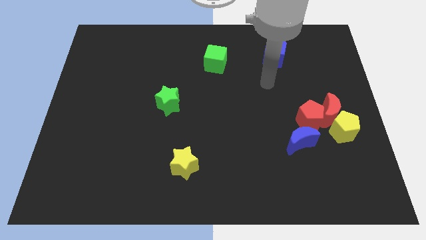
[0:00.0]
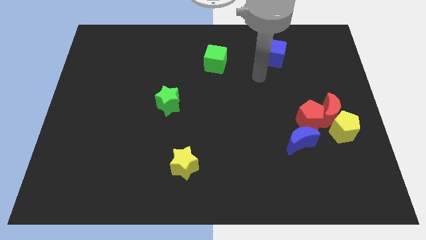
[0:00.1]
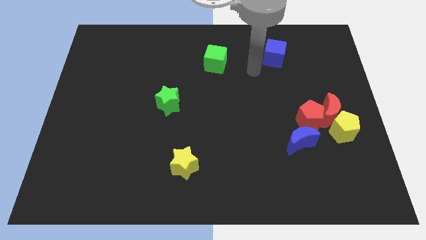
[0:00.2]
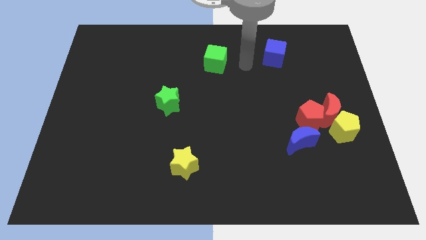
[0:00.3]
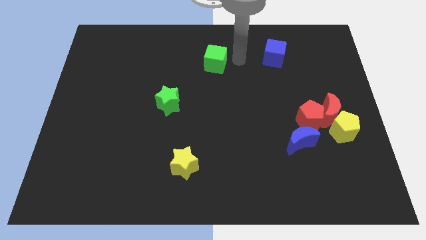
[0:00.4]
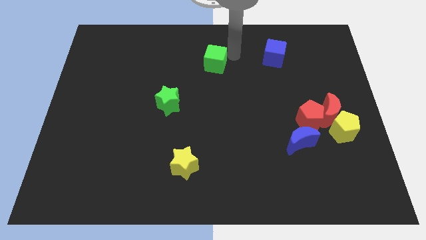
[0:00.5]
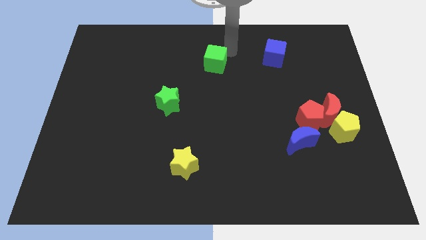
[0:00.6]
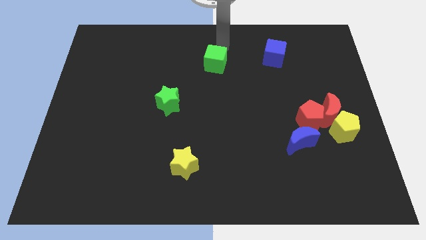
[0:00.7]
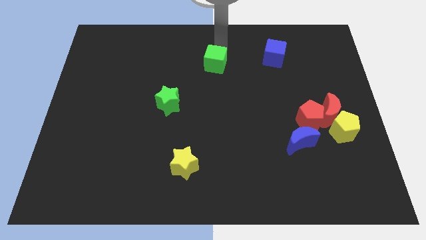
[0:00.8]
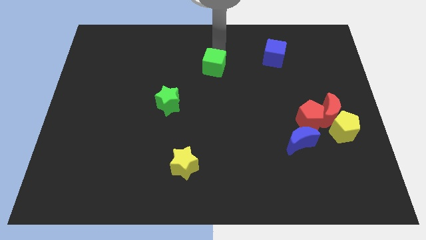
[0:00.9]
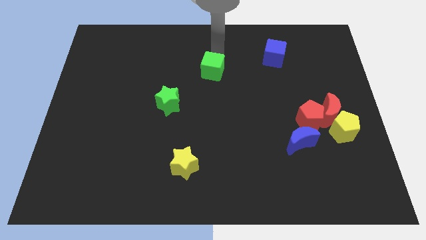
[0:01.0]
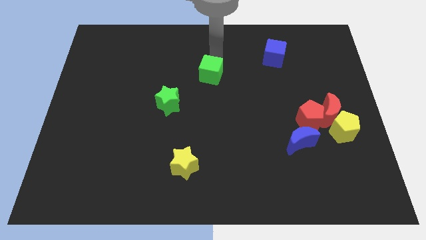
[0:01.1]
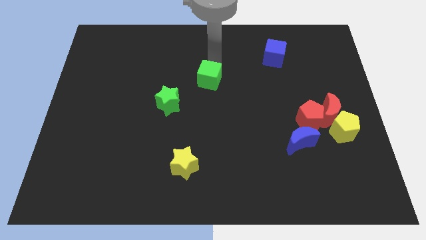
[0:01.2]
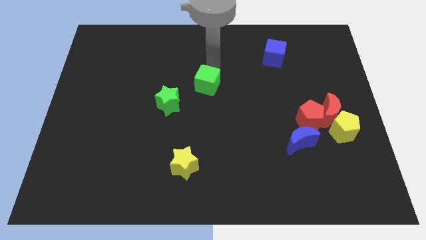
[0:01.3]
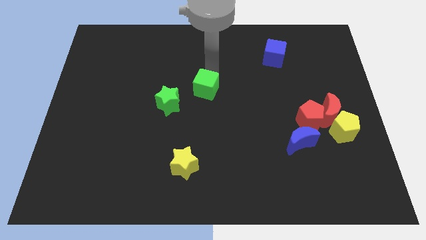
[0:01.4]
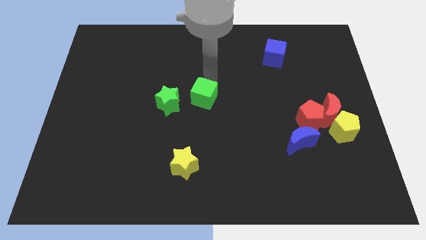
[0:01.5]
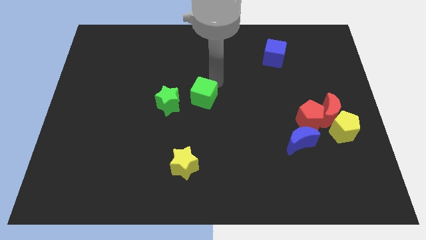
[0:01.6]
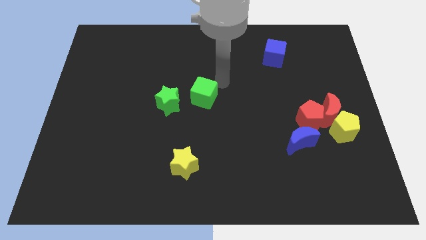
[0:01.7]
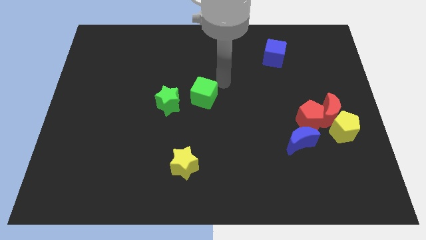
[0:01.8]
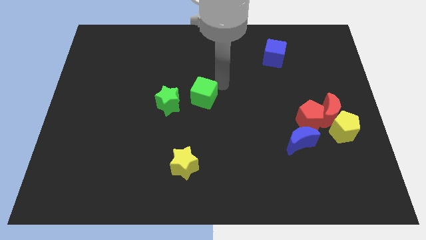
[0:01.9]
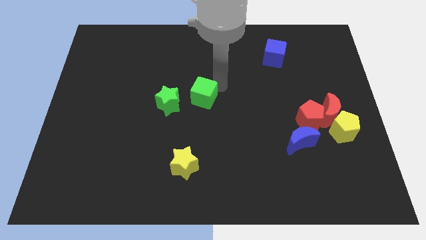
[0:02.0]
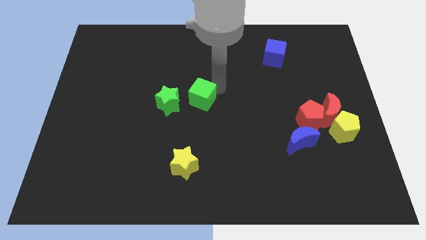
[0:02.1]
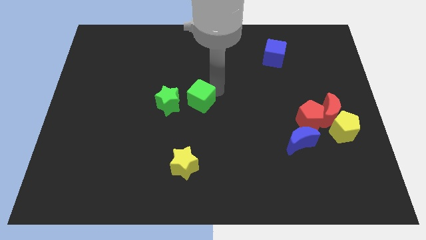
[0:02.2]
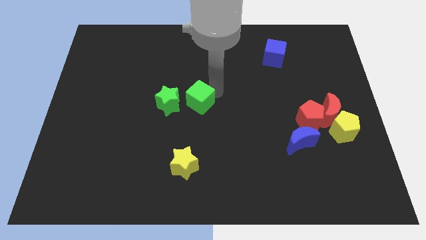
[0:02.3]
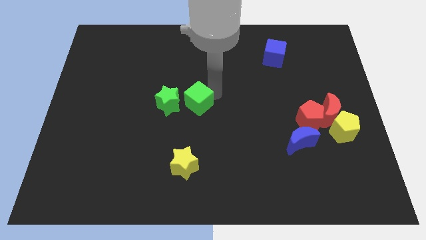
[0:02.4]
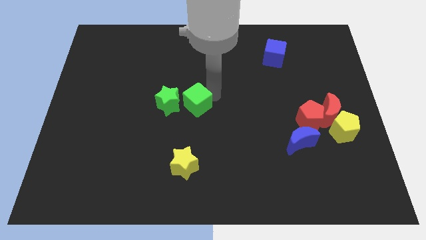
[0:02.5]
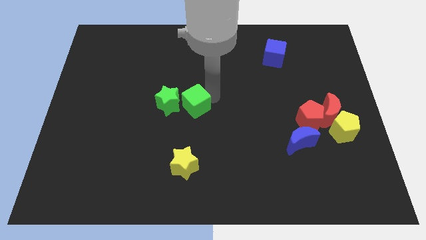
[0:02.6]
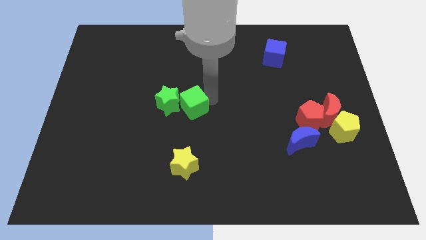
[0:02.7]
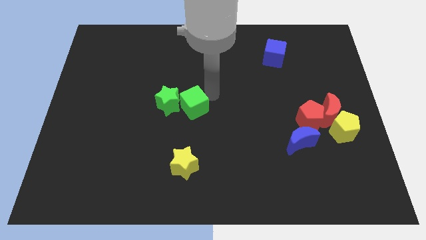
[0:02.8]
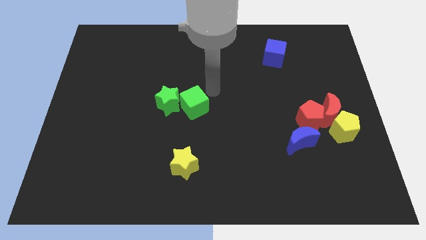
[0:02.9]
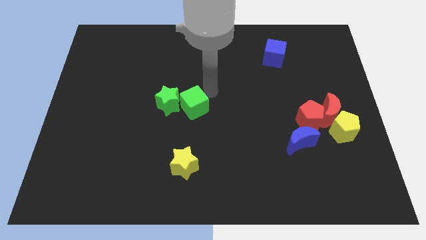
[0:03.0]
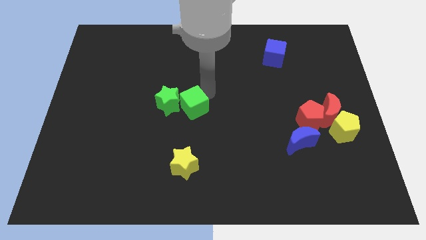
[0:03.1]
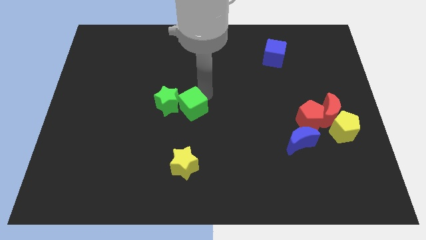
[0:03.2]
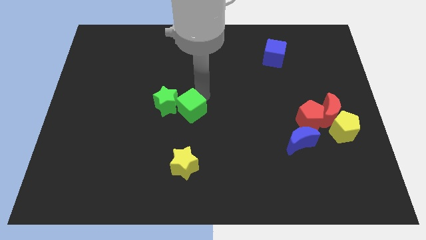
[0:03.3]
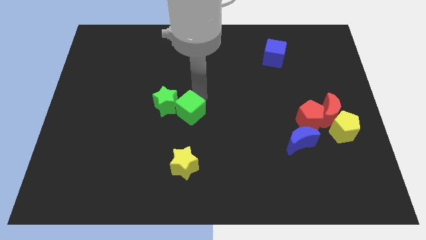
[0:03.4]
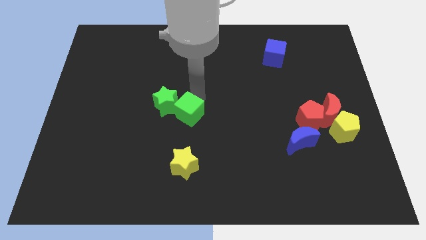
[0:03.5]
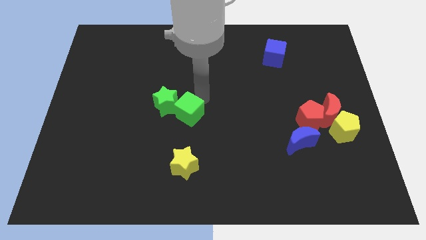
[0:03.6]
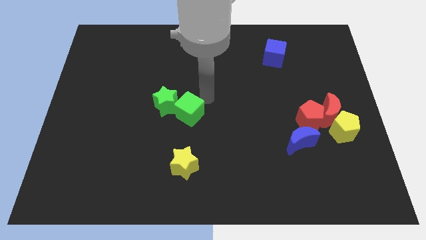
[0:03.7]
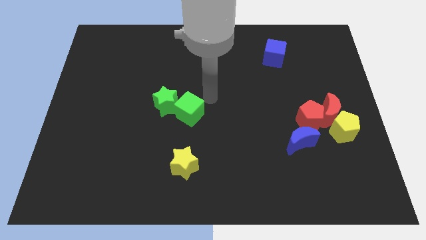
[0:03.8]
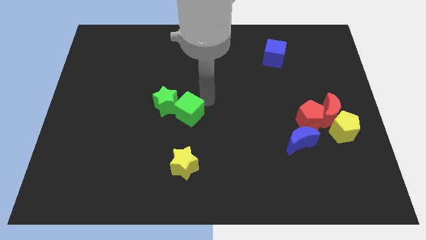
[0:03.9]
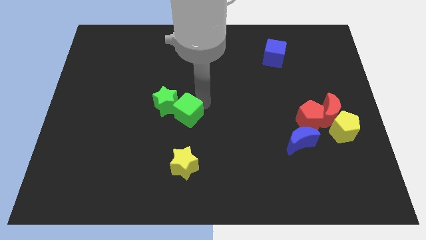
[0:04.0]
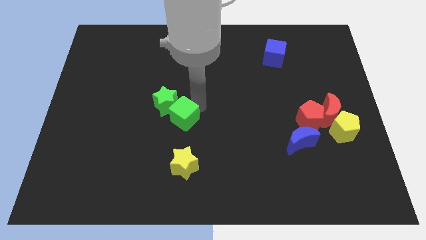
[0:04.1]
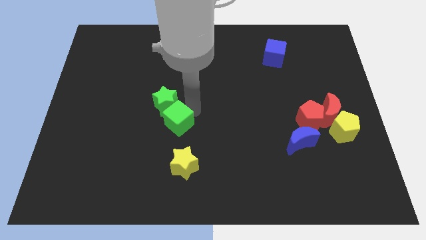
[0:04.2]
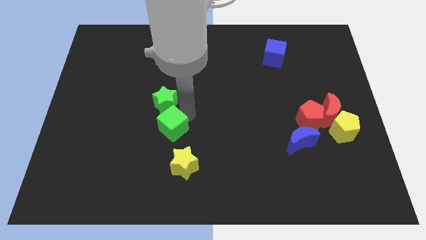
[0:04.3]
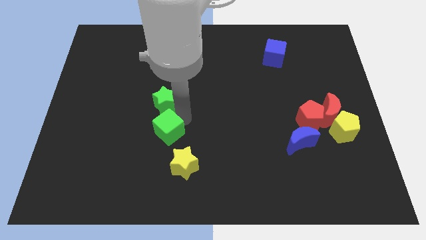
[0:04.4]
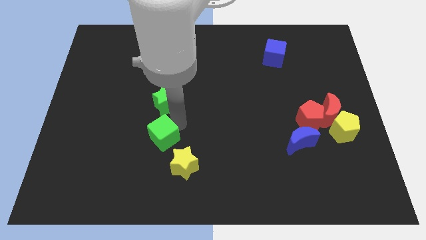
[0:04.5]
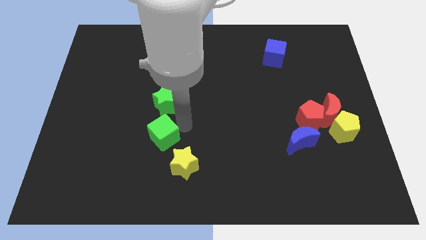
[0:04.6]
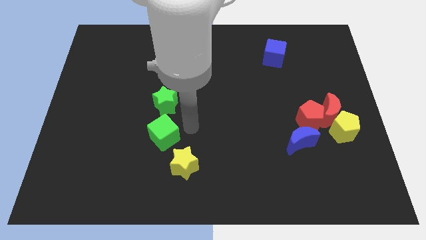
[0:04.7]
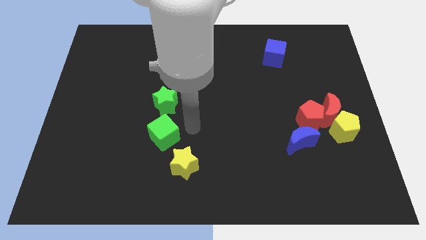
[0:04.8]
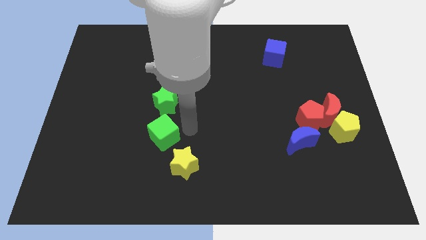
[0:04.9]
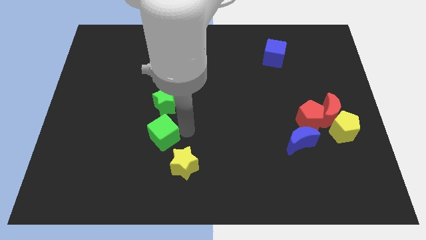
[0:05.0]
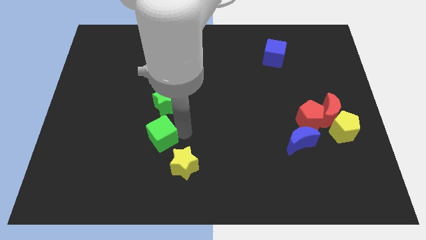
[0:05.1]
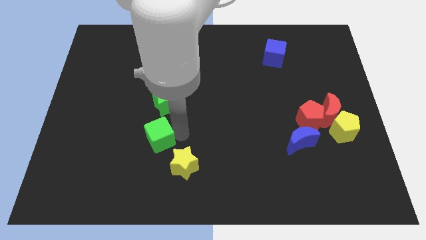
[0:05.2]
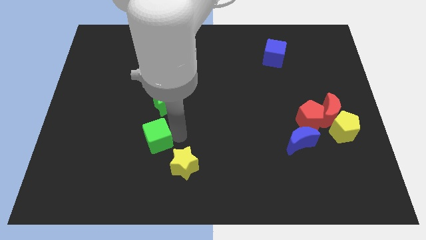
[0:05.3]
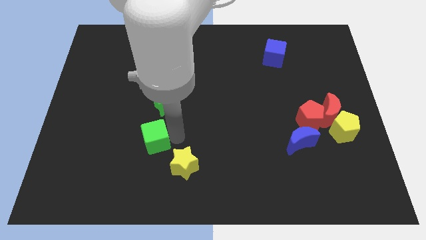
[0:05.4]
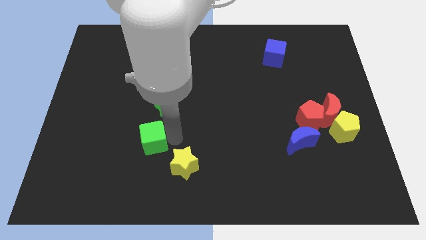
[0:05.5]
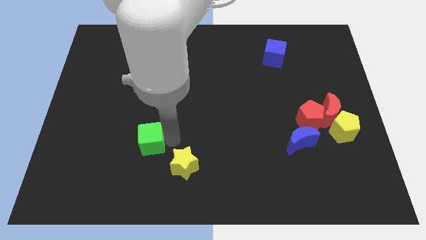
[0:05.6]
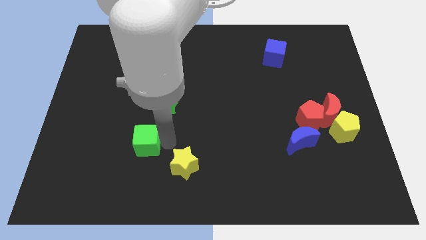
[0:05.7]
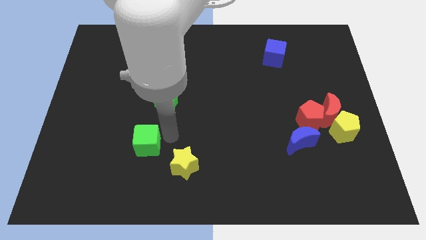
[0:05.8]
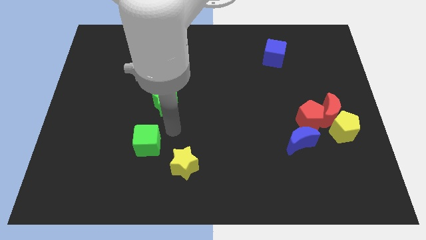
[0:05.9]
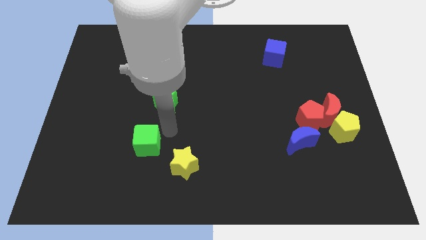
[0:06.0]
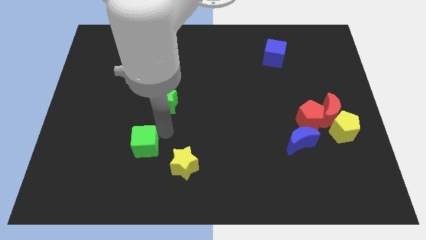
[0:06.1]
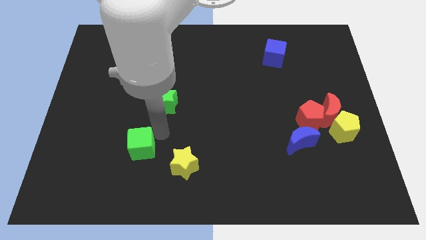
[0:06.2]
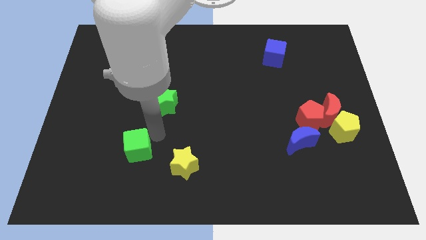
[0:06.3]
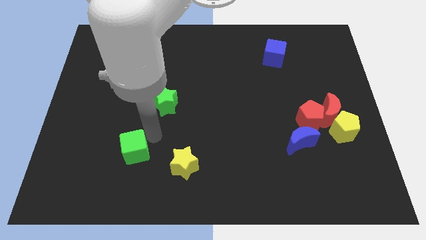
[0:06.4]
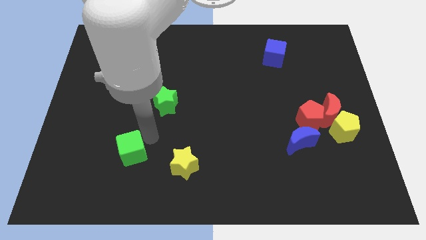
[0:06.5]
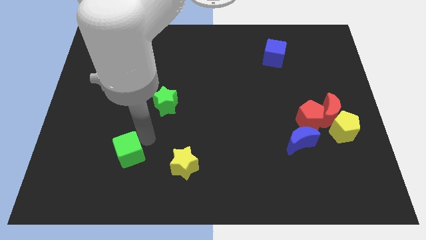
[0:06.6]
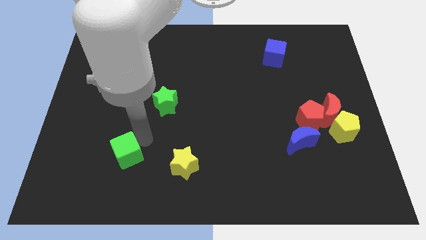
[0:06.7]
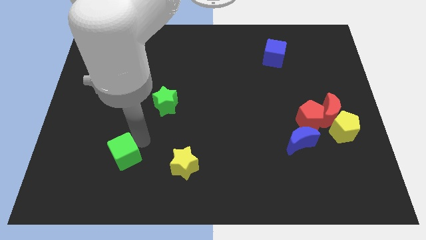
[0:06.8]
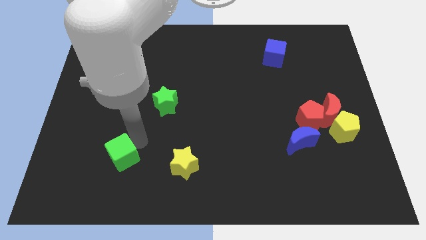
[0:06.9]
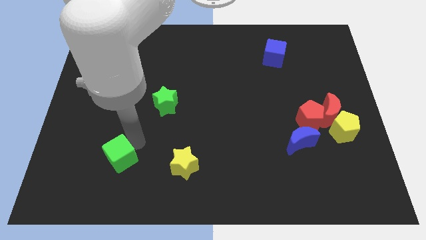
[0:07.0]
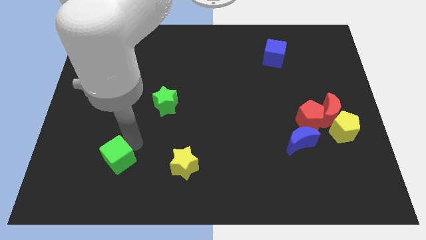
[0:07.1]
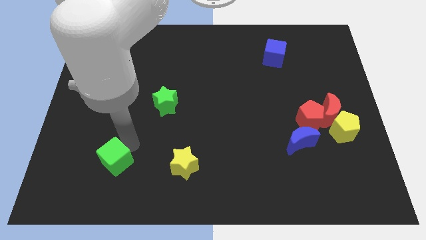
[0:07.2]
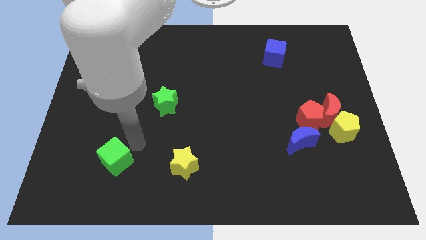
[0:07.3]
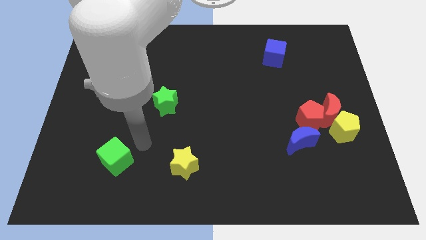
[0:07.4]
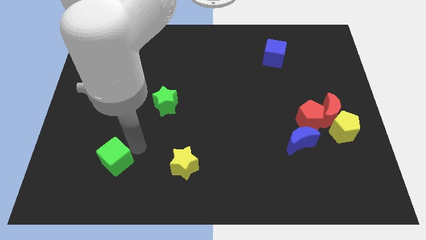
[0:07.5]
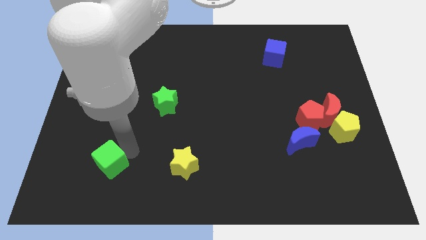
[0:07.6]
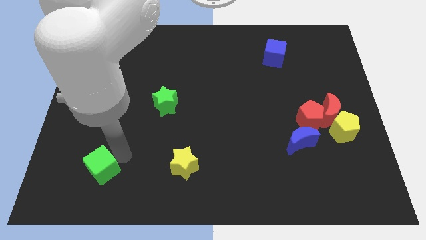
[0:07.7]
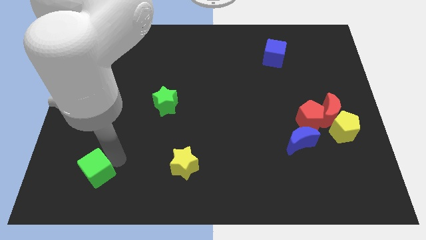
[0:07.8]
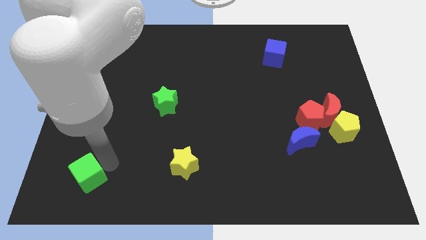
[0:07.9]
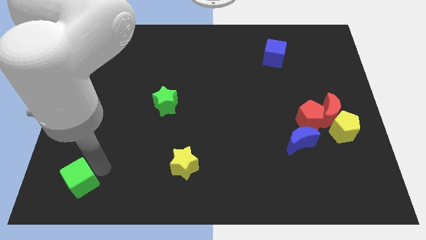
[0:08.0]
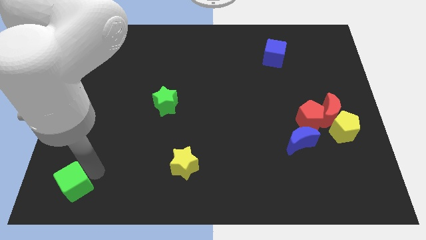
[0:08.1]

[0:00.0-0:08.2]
put the green cube to the bottom left
